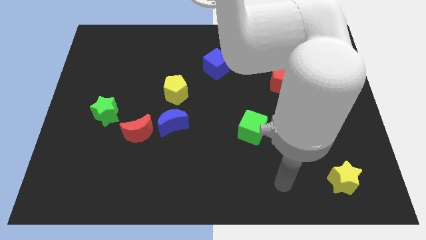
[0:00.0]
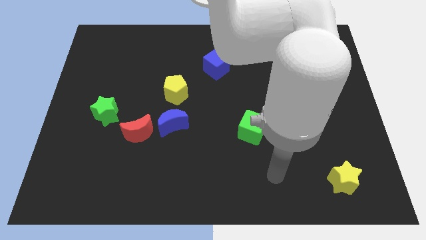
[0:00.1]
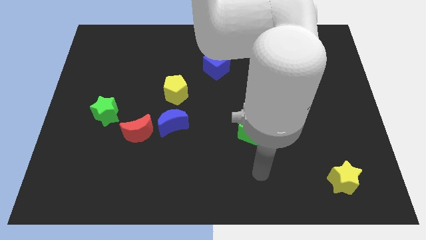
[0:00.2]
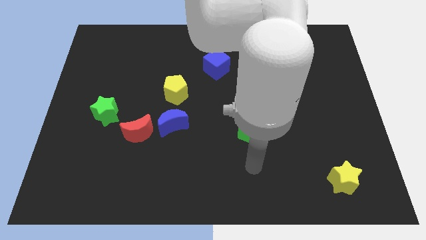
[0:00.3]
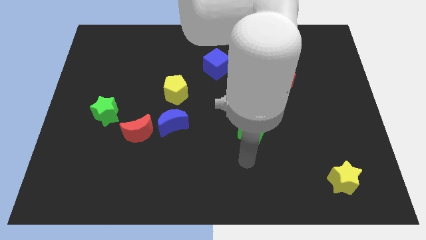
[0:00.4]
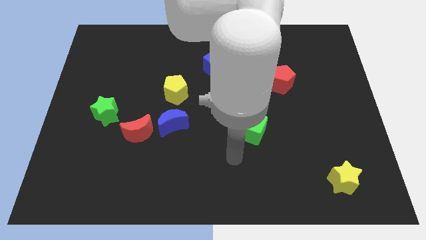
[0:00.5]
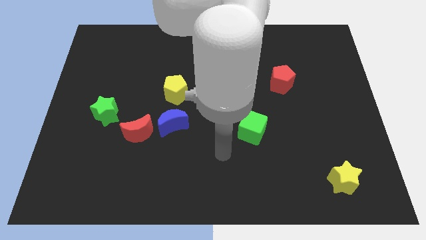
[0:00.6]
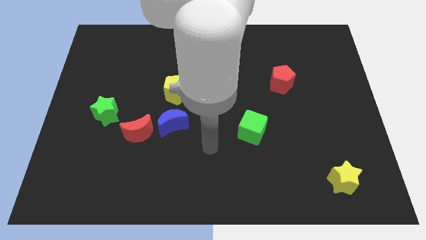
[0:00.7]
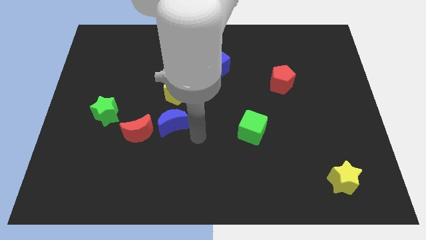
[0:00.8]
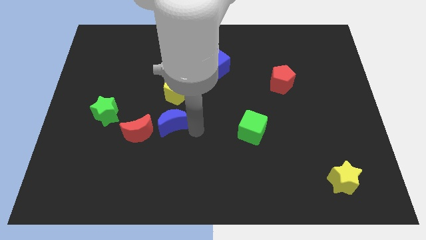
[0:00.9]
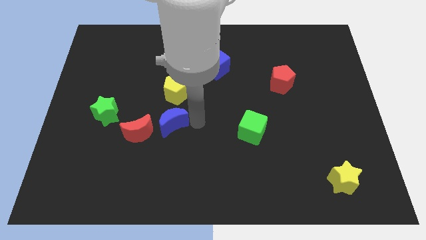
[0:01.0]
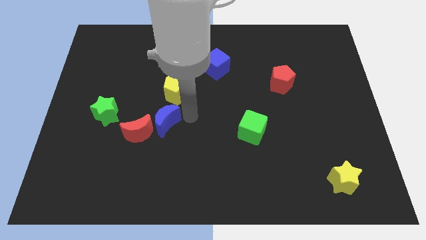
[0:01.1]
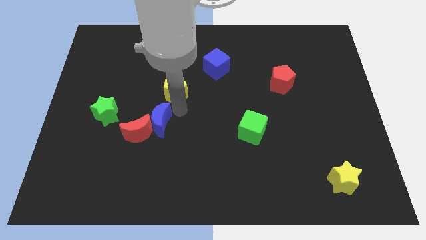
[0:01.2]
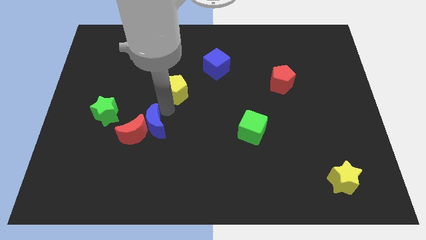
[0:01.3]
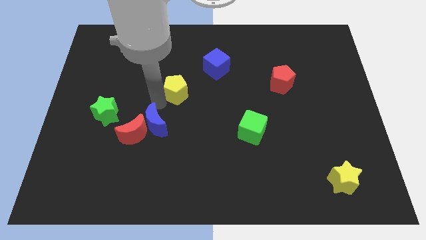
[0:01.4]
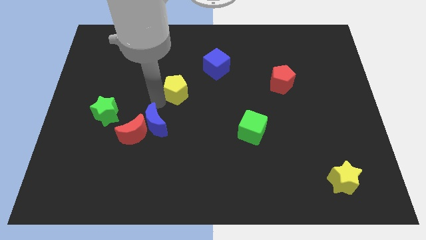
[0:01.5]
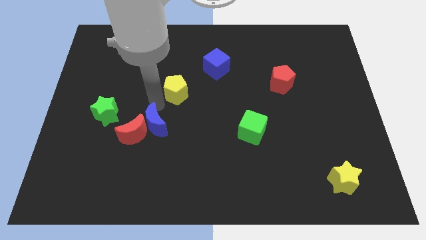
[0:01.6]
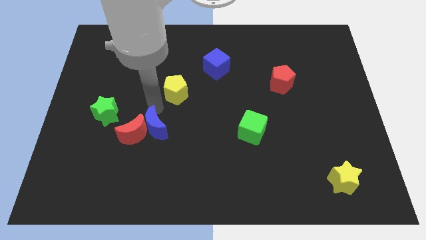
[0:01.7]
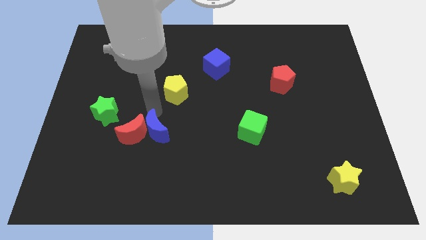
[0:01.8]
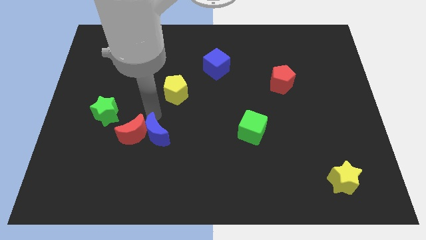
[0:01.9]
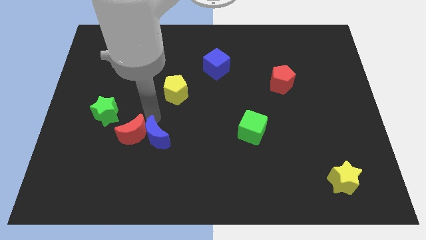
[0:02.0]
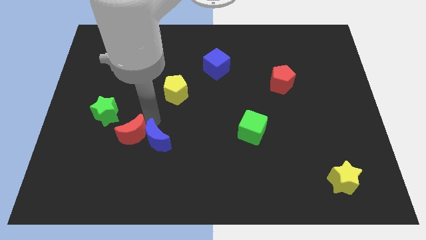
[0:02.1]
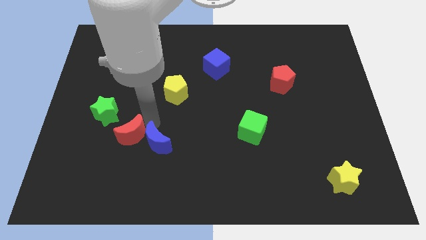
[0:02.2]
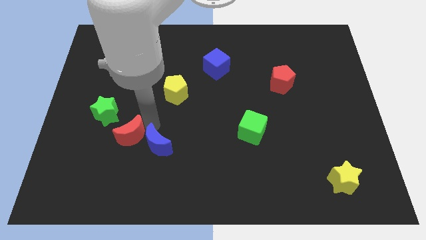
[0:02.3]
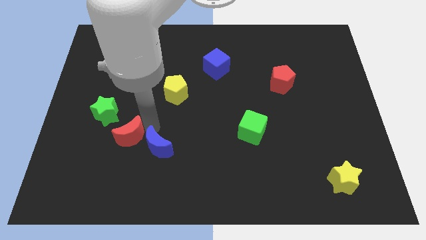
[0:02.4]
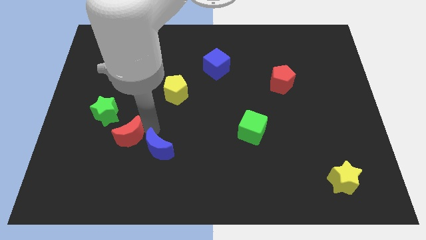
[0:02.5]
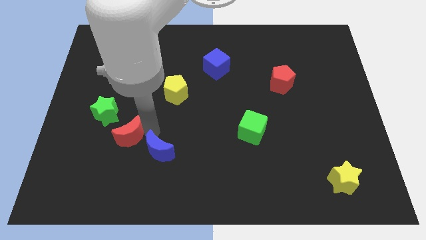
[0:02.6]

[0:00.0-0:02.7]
pull the blue moon apart from the red moon and yellow pentagon

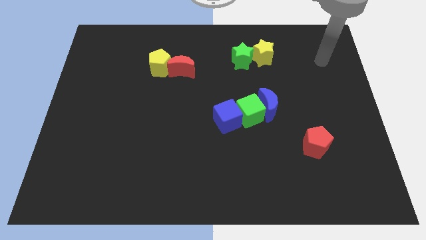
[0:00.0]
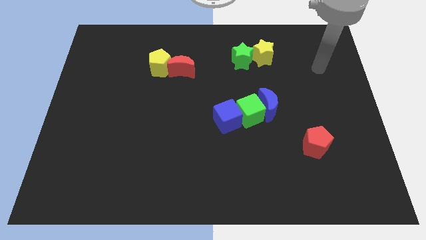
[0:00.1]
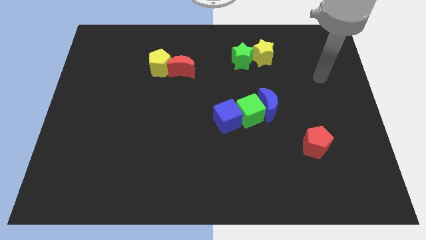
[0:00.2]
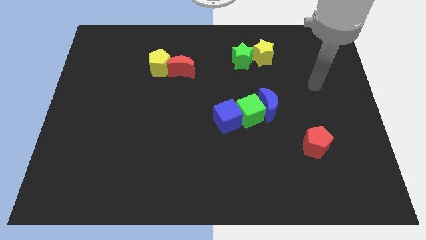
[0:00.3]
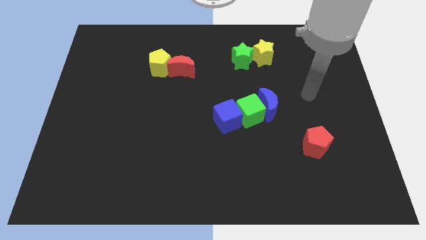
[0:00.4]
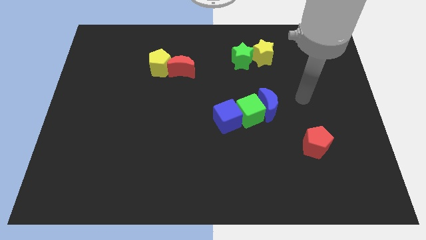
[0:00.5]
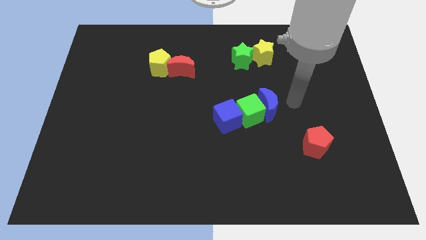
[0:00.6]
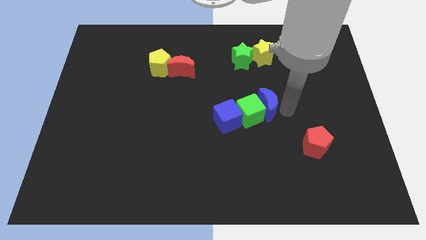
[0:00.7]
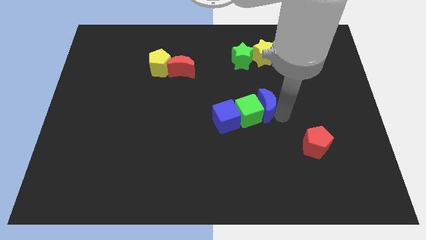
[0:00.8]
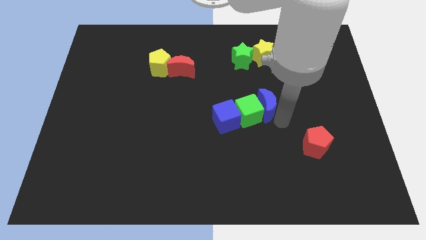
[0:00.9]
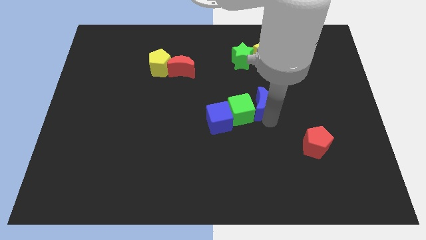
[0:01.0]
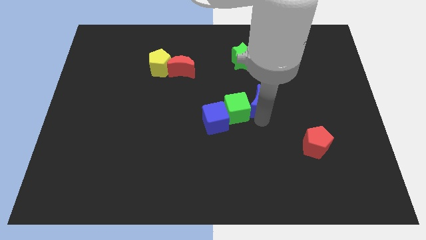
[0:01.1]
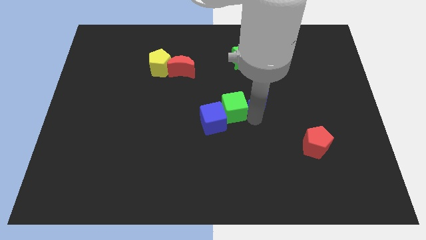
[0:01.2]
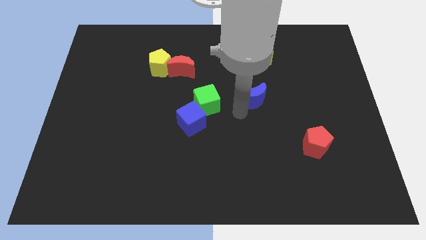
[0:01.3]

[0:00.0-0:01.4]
move the blue moon away from the green cube

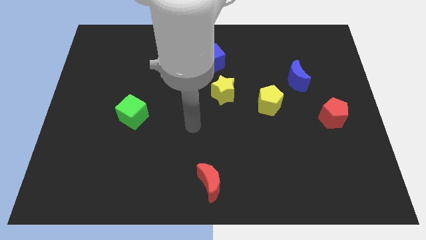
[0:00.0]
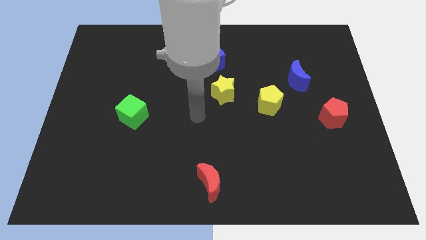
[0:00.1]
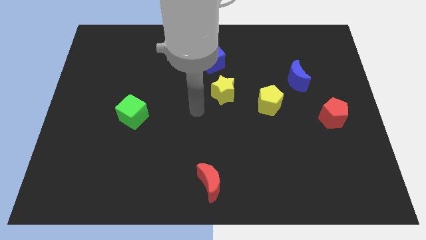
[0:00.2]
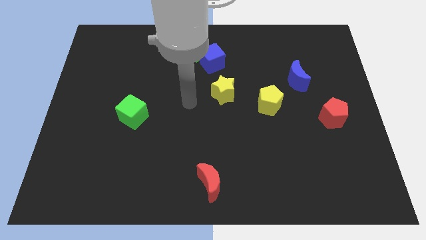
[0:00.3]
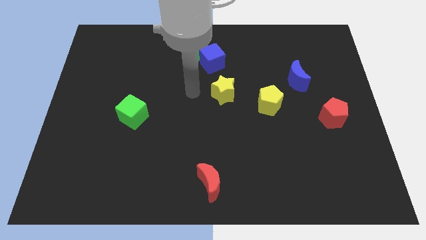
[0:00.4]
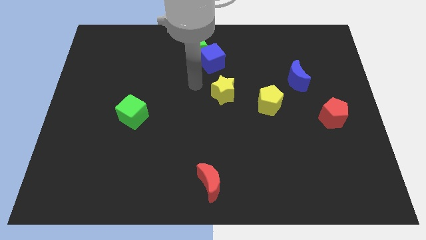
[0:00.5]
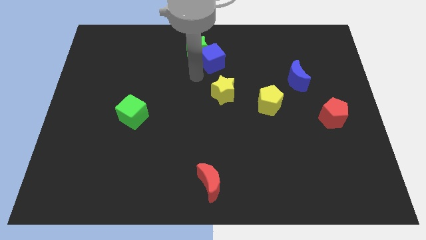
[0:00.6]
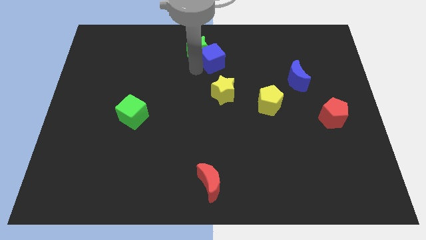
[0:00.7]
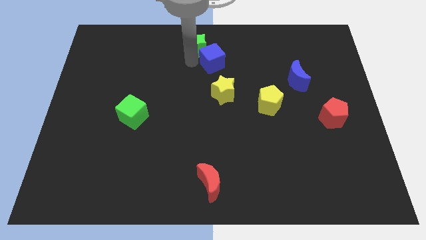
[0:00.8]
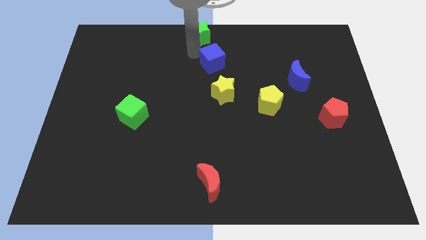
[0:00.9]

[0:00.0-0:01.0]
move the blue cube away from the green star

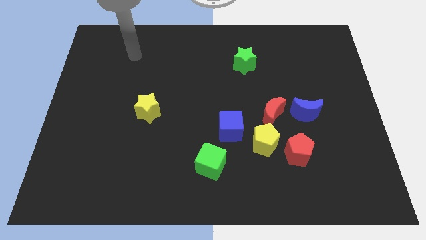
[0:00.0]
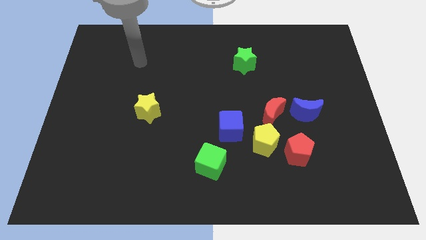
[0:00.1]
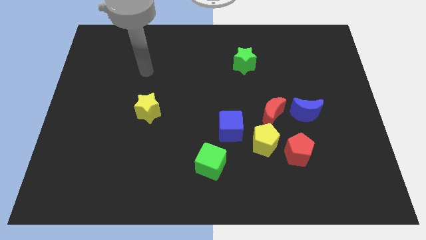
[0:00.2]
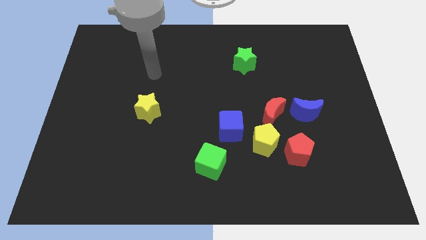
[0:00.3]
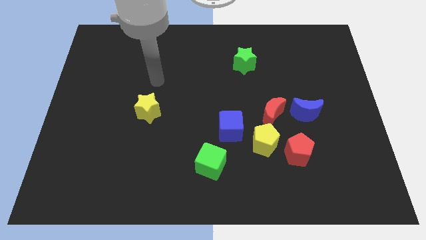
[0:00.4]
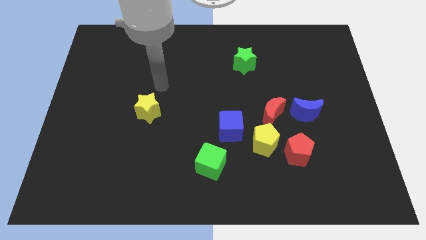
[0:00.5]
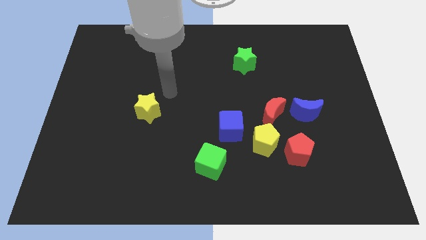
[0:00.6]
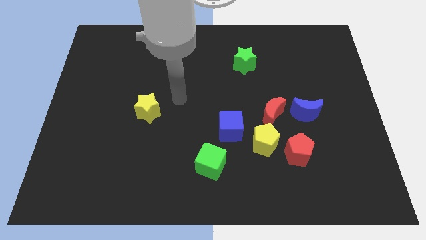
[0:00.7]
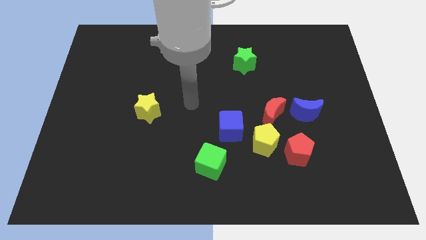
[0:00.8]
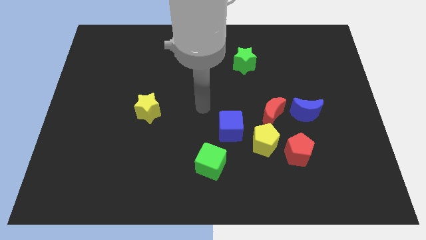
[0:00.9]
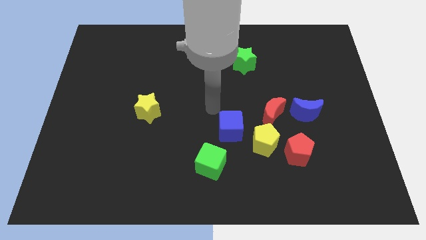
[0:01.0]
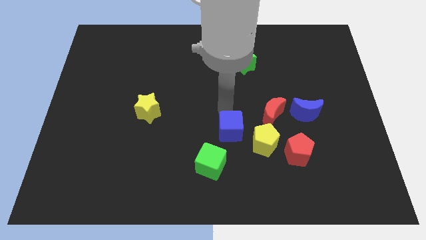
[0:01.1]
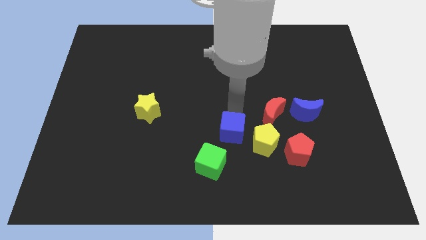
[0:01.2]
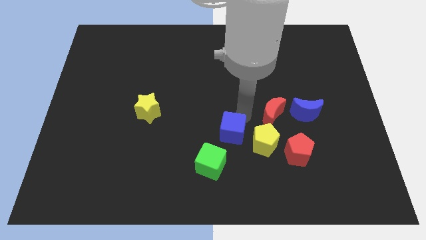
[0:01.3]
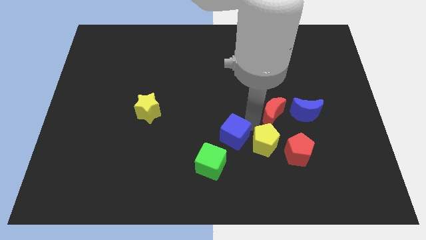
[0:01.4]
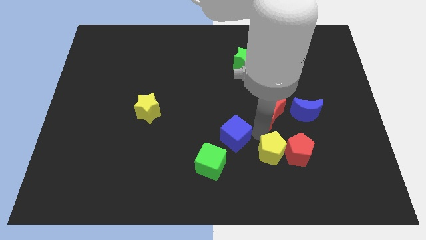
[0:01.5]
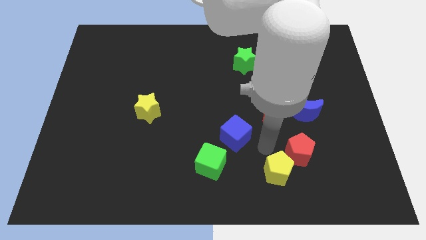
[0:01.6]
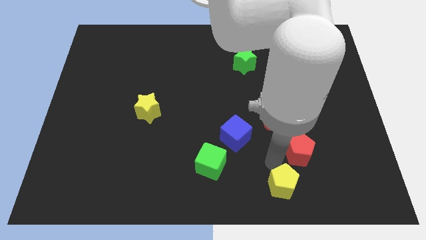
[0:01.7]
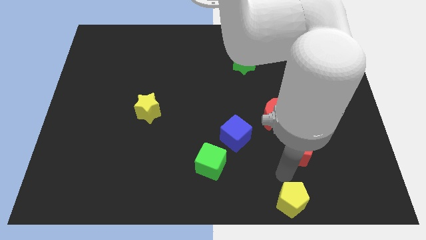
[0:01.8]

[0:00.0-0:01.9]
move the red pentagon away from the yellow pentagon

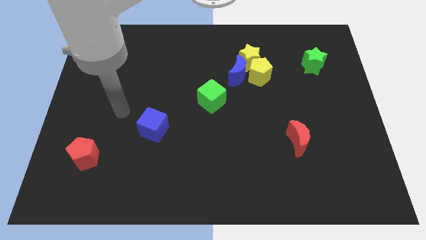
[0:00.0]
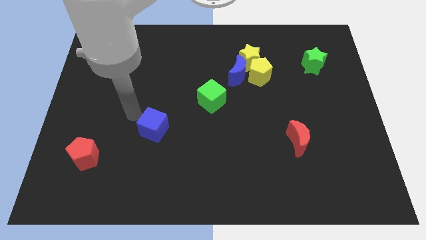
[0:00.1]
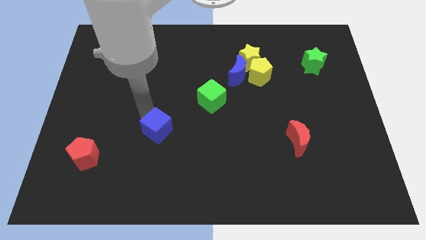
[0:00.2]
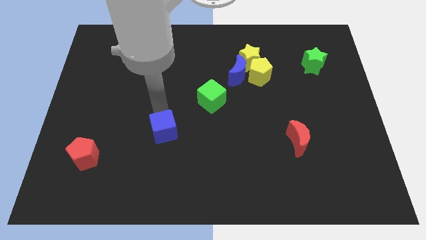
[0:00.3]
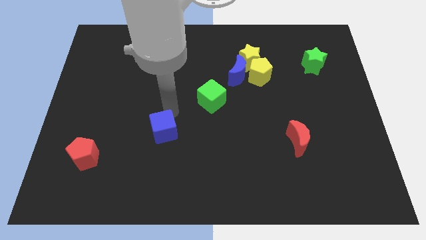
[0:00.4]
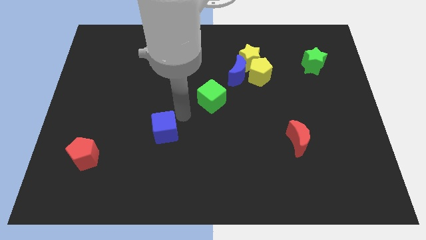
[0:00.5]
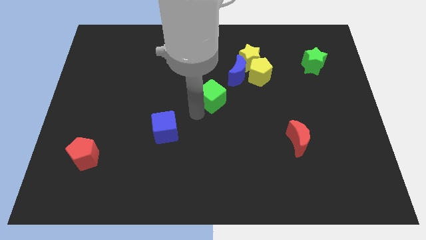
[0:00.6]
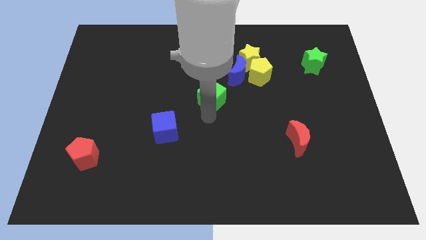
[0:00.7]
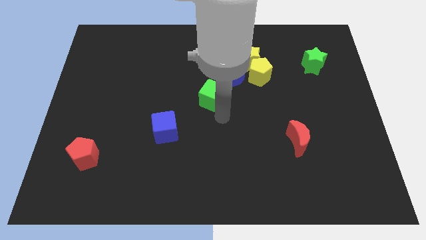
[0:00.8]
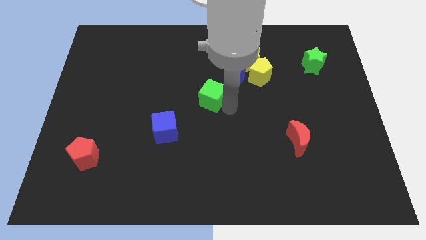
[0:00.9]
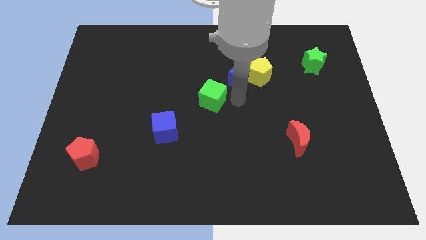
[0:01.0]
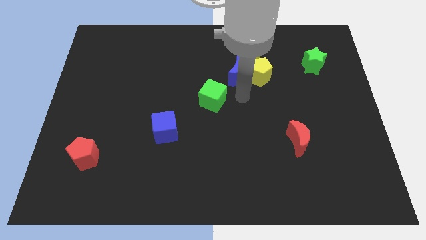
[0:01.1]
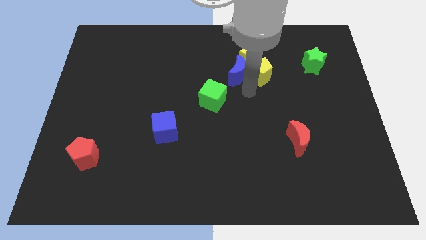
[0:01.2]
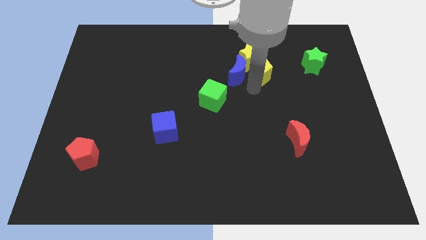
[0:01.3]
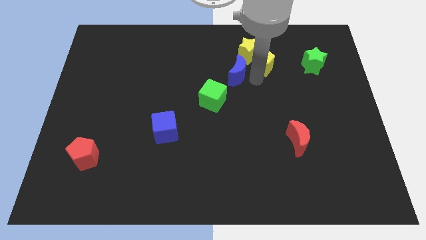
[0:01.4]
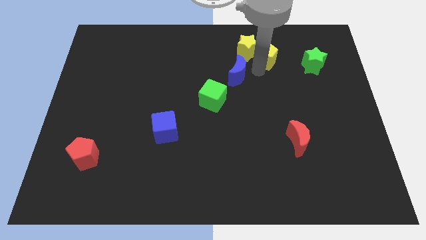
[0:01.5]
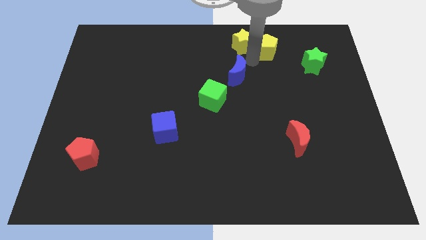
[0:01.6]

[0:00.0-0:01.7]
move the blue moon away from the yellow pentagon and yellow star

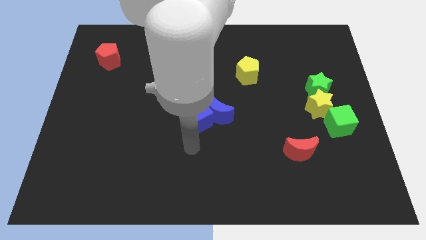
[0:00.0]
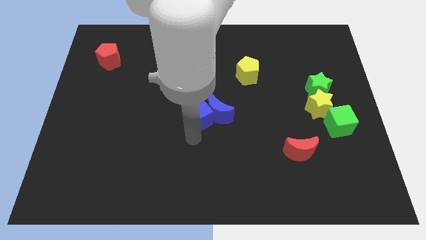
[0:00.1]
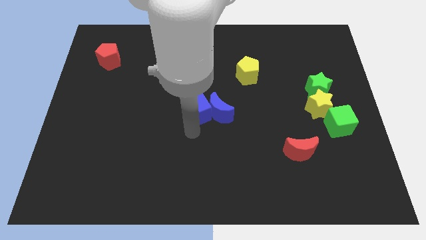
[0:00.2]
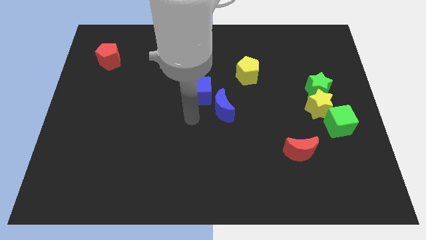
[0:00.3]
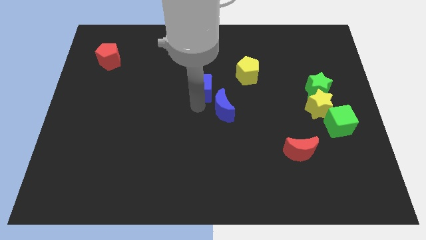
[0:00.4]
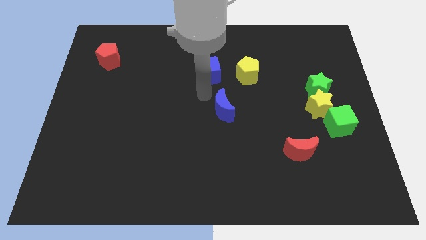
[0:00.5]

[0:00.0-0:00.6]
pull the blue moon apart from the blue cube
